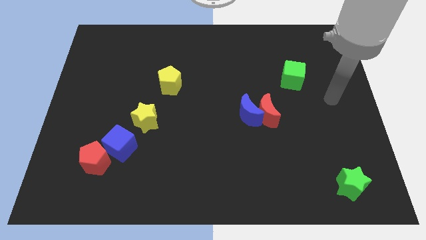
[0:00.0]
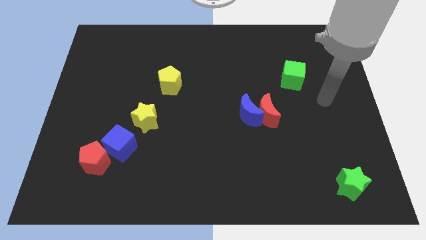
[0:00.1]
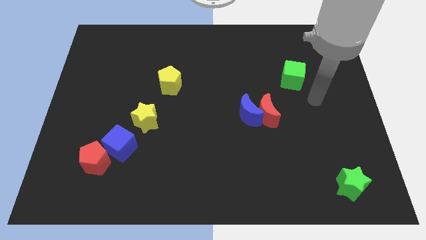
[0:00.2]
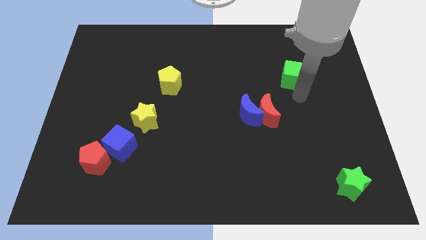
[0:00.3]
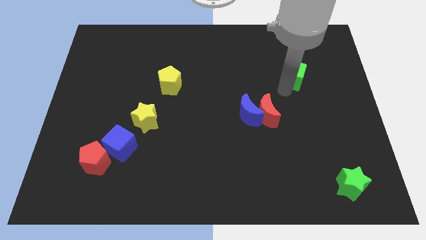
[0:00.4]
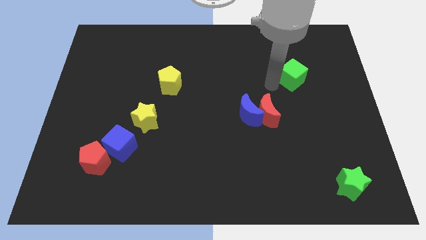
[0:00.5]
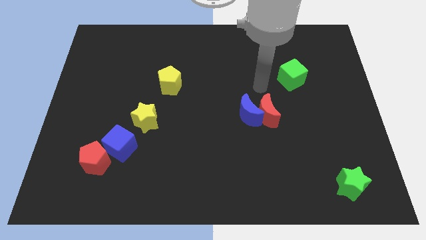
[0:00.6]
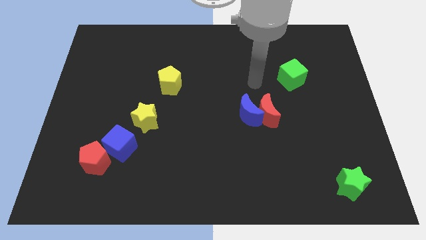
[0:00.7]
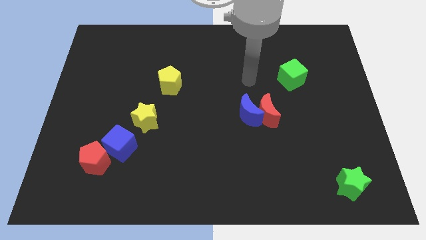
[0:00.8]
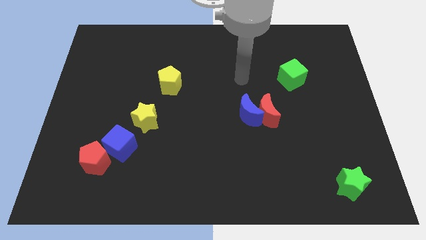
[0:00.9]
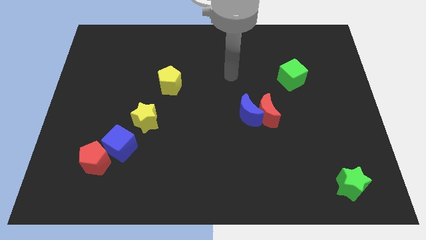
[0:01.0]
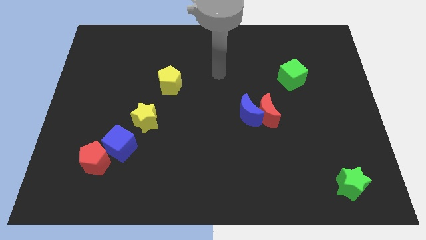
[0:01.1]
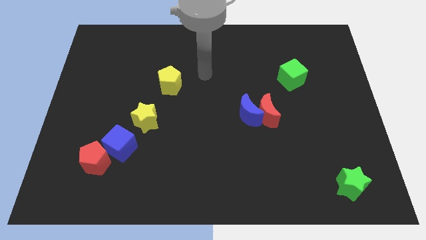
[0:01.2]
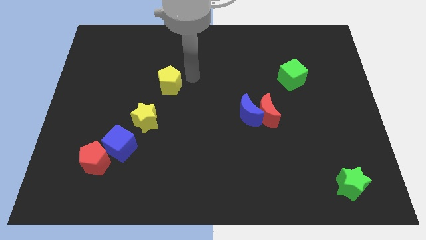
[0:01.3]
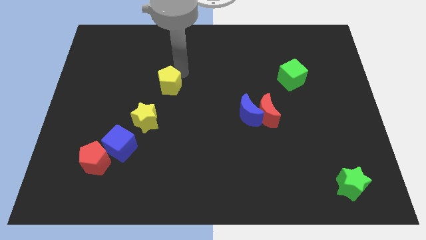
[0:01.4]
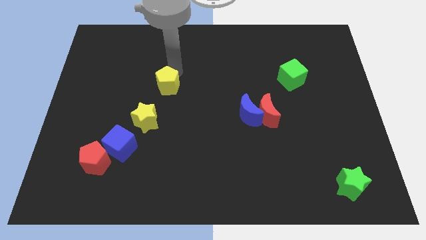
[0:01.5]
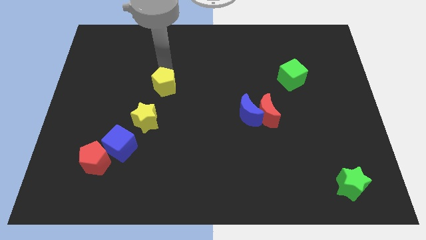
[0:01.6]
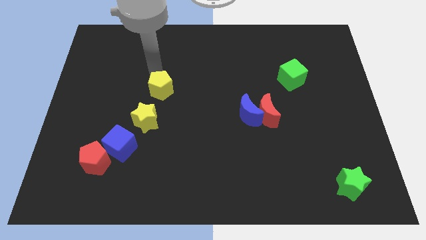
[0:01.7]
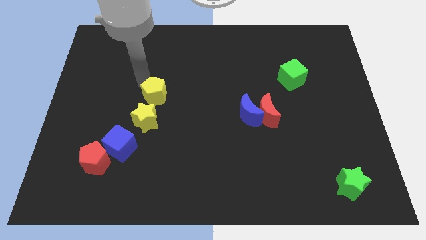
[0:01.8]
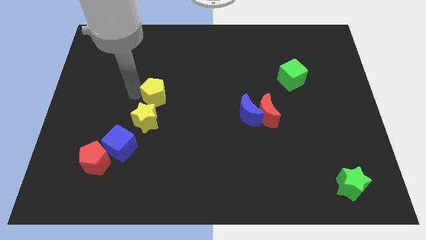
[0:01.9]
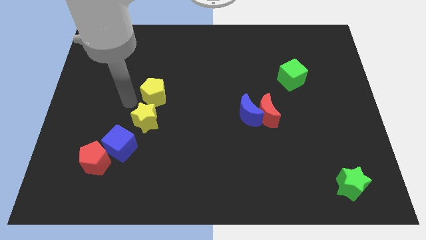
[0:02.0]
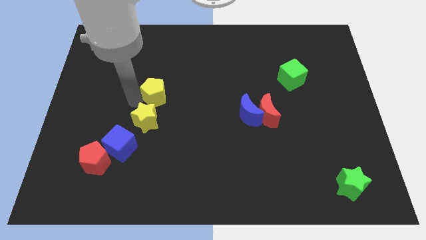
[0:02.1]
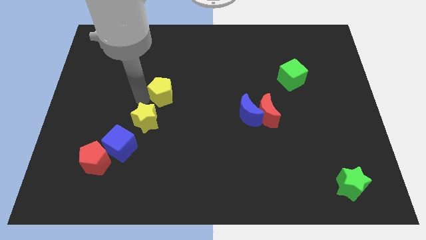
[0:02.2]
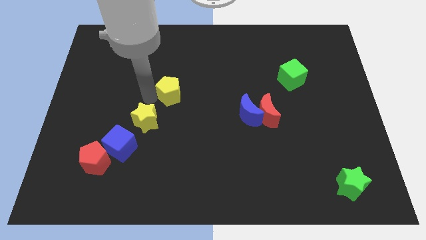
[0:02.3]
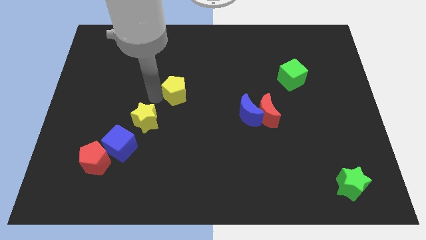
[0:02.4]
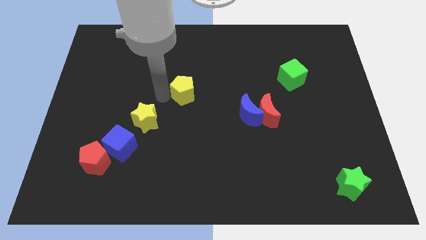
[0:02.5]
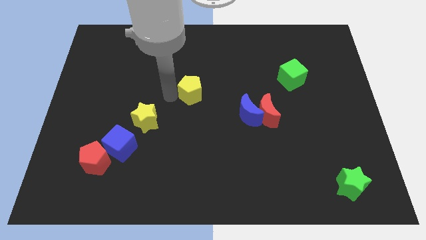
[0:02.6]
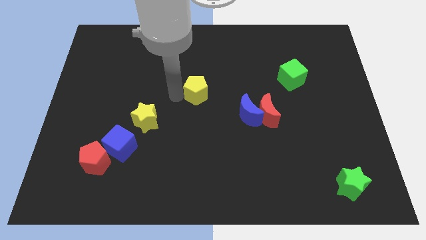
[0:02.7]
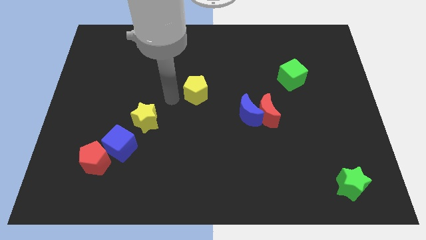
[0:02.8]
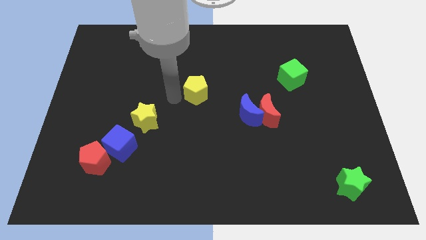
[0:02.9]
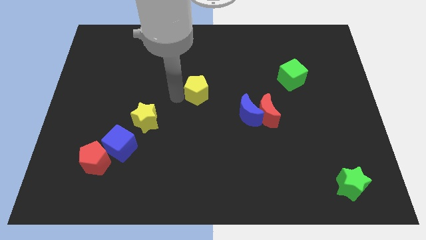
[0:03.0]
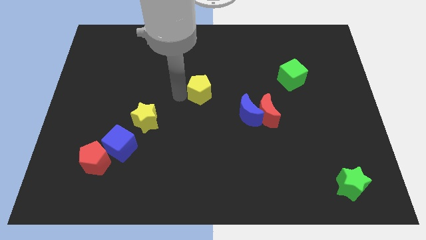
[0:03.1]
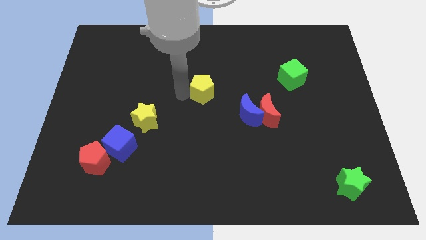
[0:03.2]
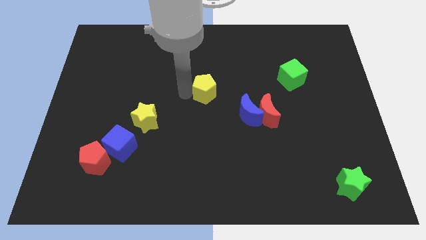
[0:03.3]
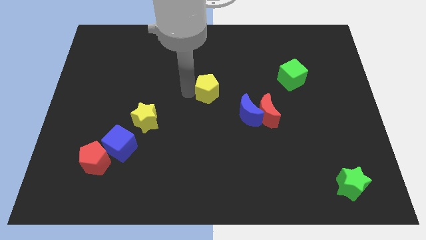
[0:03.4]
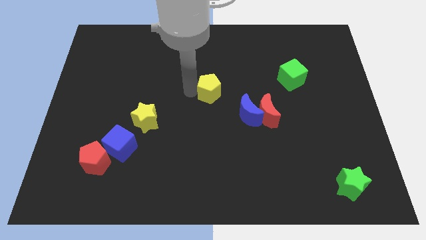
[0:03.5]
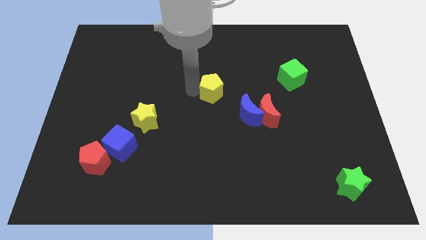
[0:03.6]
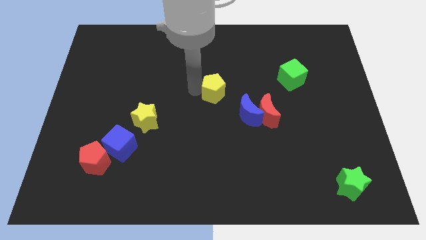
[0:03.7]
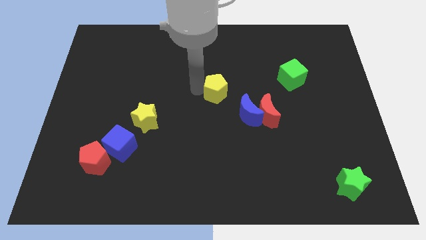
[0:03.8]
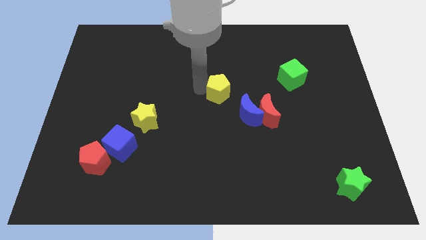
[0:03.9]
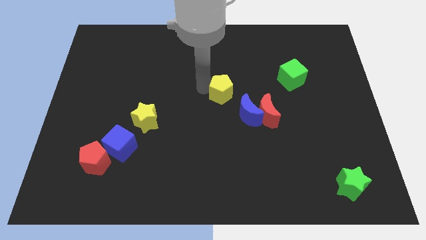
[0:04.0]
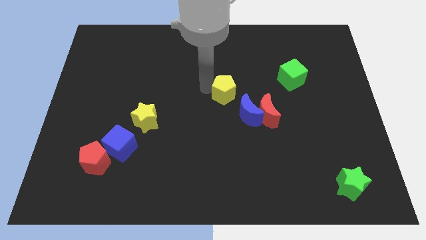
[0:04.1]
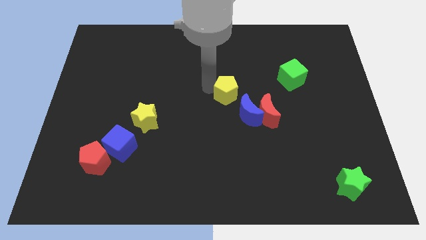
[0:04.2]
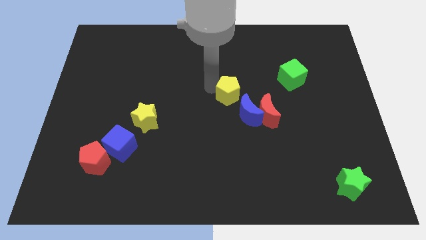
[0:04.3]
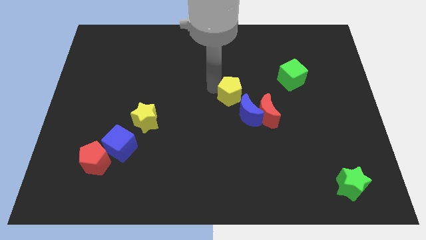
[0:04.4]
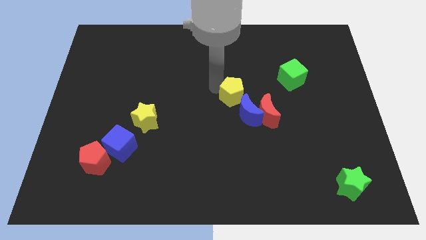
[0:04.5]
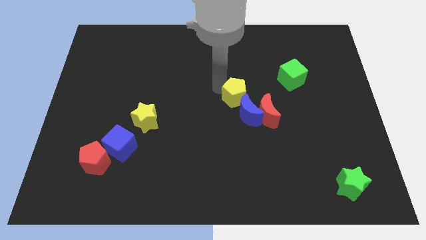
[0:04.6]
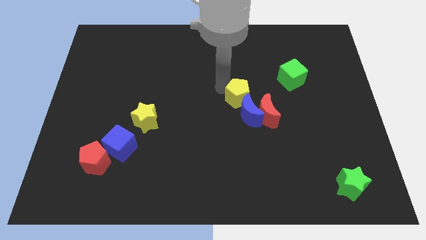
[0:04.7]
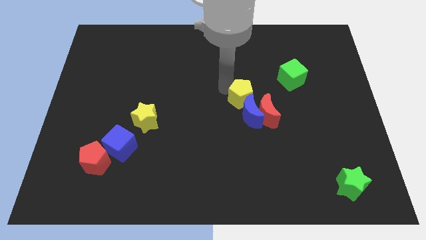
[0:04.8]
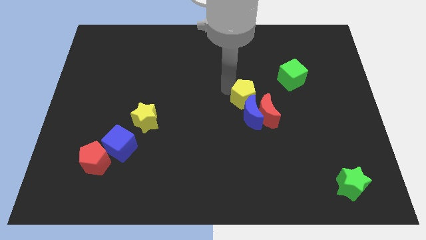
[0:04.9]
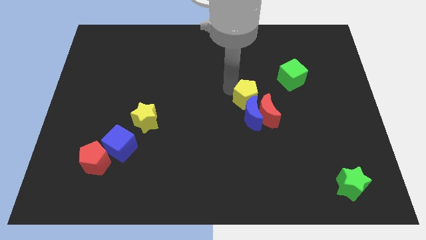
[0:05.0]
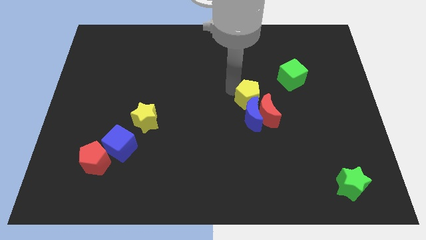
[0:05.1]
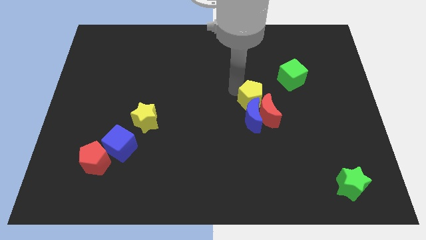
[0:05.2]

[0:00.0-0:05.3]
put the yellow pentagon towards the red moon

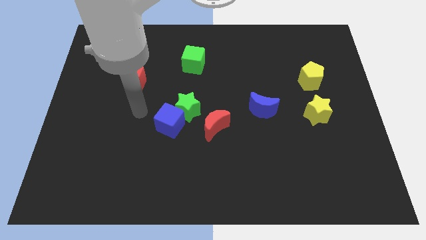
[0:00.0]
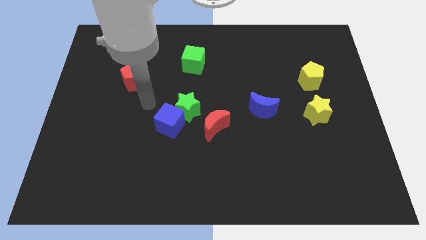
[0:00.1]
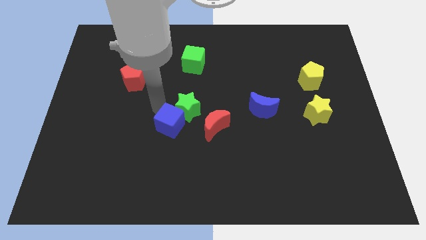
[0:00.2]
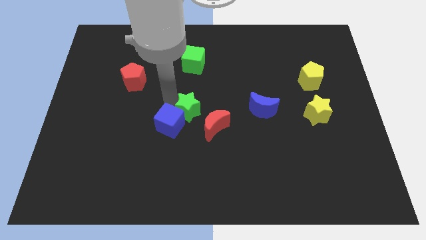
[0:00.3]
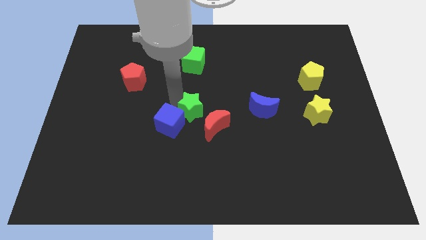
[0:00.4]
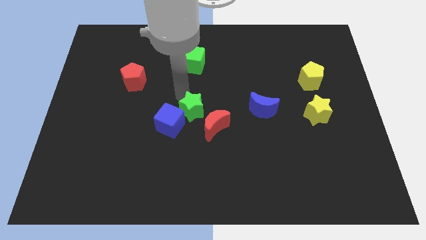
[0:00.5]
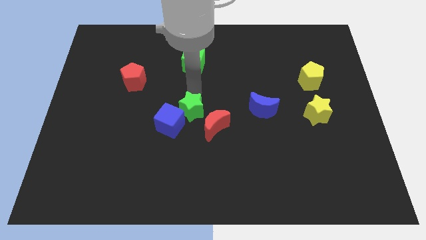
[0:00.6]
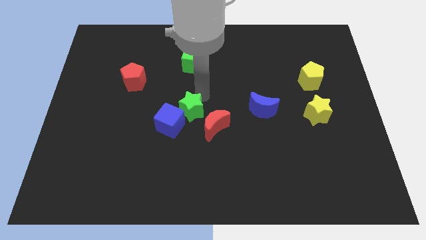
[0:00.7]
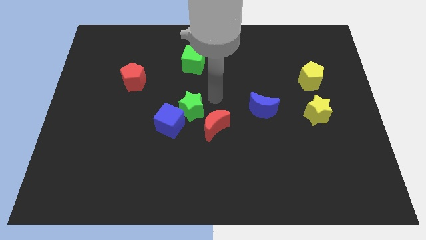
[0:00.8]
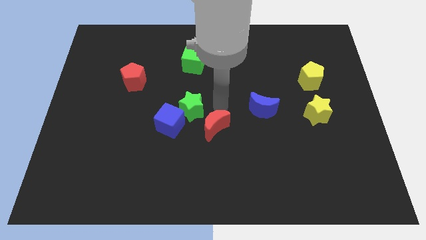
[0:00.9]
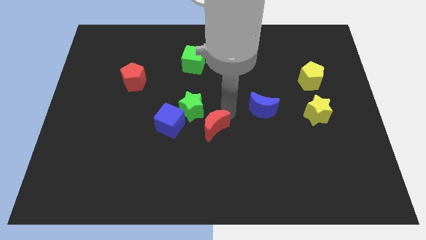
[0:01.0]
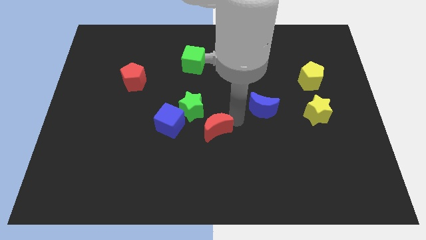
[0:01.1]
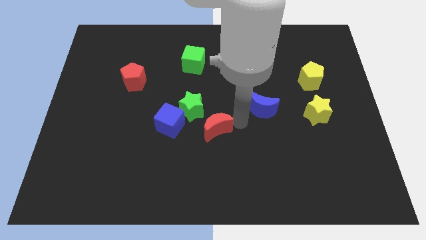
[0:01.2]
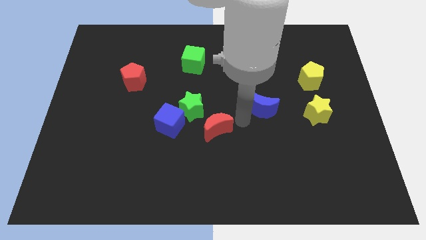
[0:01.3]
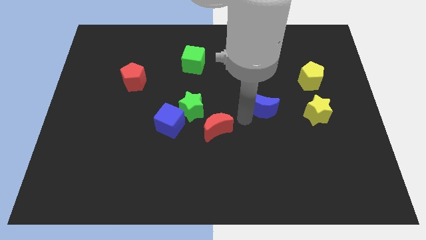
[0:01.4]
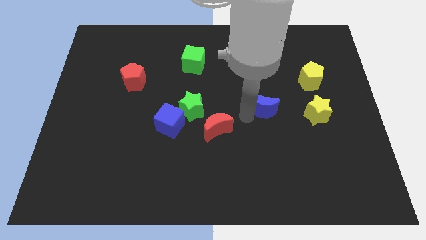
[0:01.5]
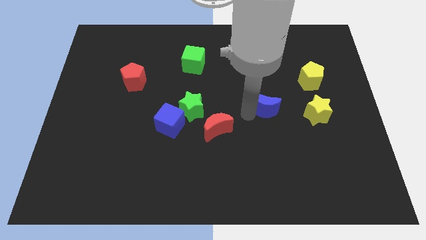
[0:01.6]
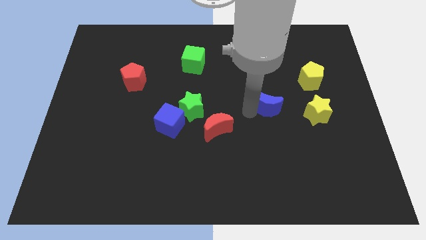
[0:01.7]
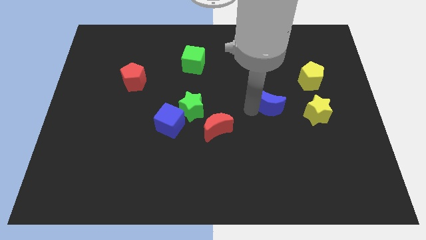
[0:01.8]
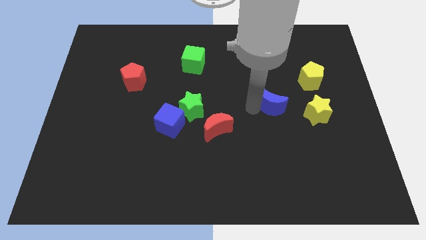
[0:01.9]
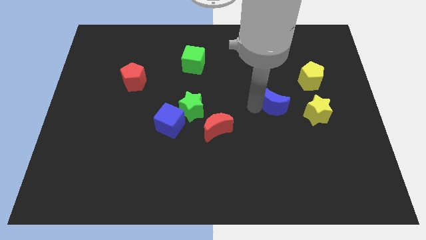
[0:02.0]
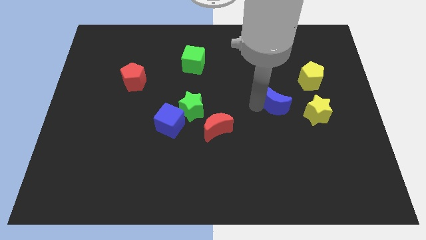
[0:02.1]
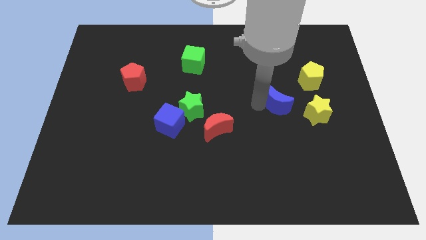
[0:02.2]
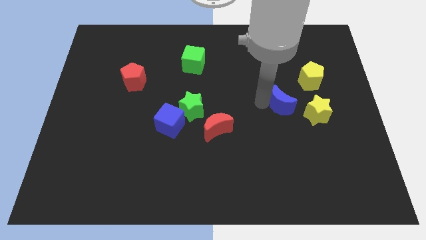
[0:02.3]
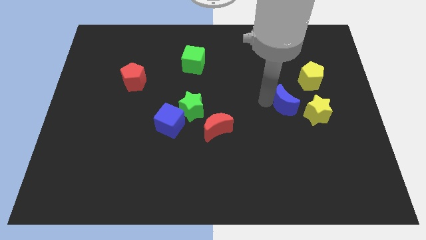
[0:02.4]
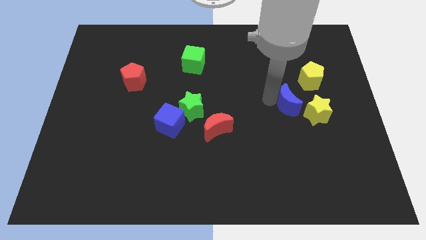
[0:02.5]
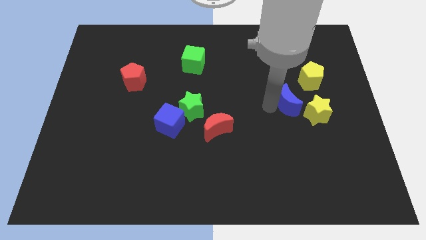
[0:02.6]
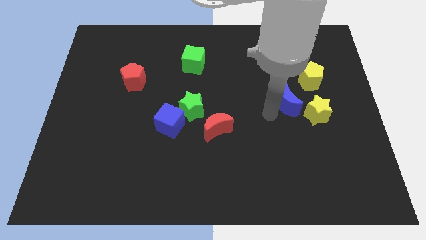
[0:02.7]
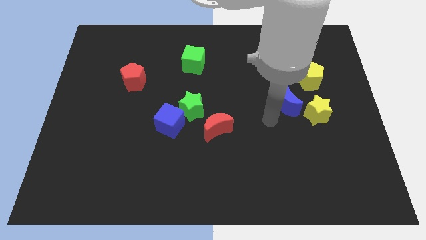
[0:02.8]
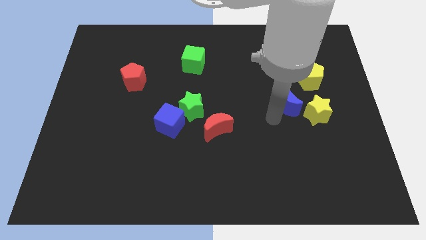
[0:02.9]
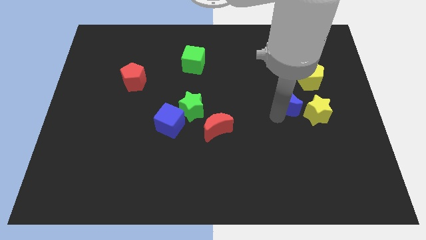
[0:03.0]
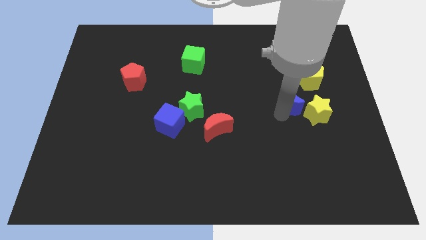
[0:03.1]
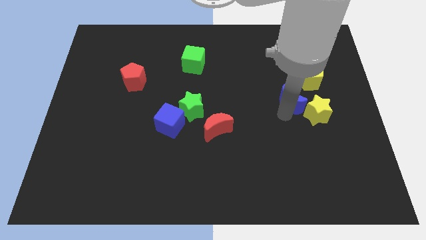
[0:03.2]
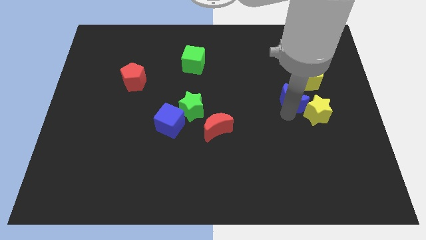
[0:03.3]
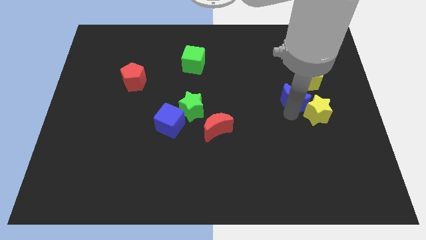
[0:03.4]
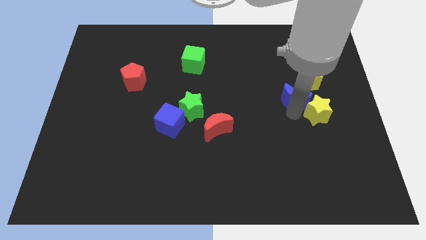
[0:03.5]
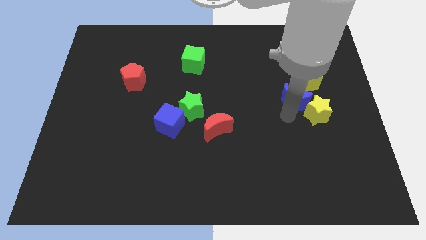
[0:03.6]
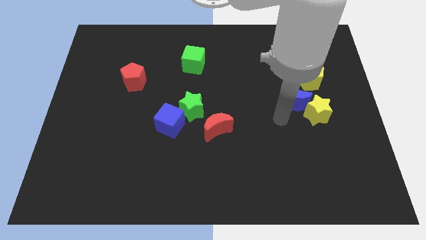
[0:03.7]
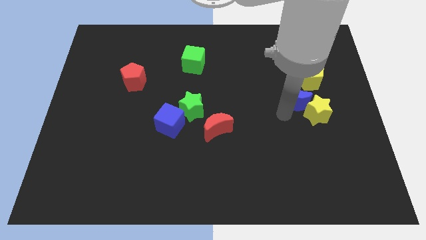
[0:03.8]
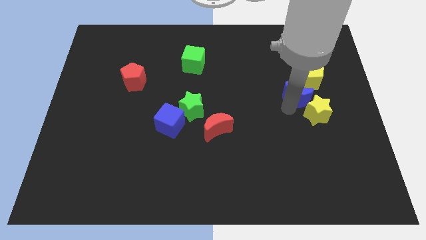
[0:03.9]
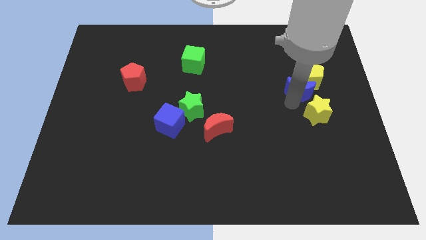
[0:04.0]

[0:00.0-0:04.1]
slide the blue moon next to the yellow pentagon
